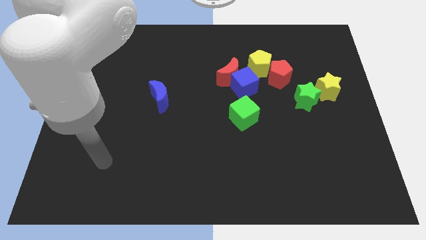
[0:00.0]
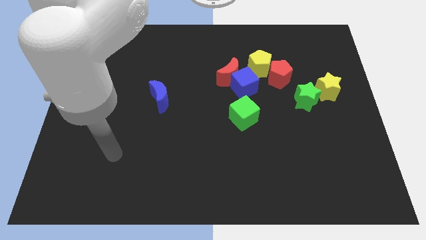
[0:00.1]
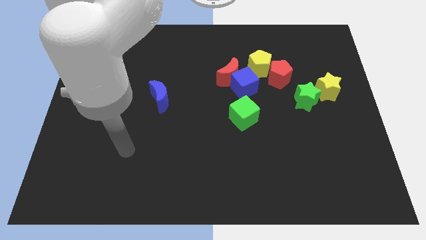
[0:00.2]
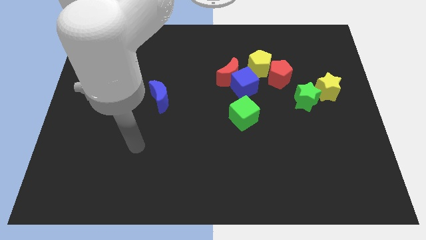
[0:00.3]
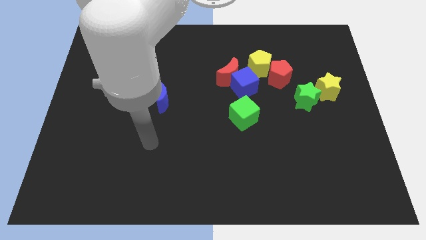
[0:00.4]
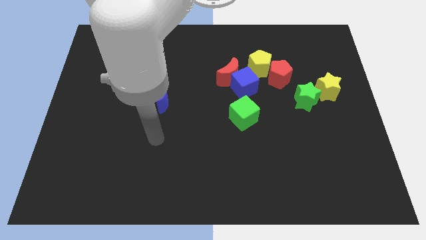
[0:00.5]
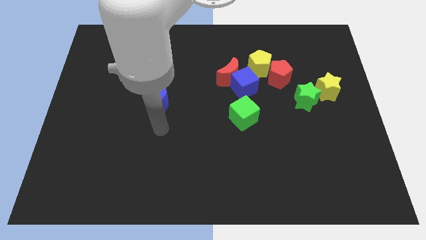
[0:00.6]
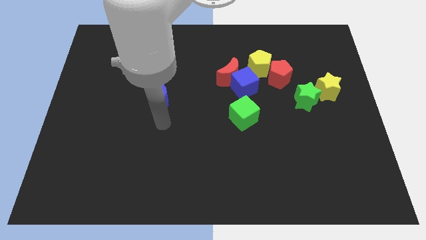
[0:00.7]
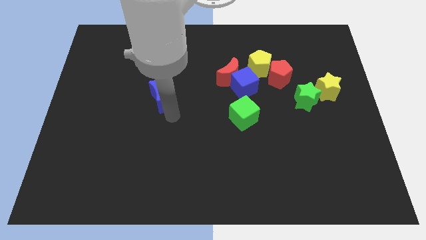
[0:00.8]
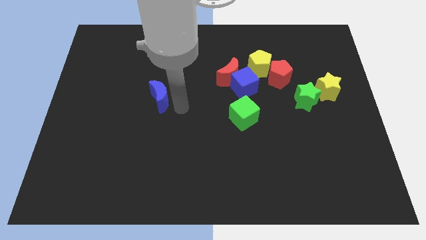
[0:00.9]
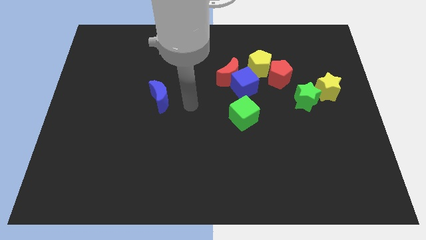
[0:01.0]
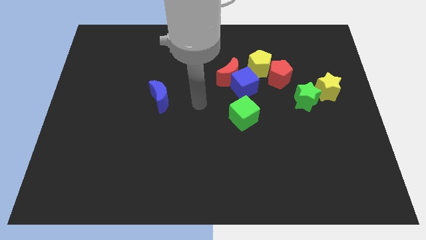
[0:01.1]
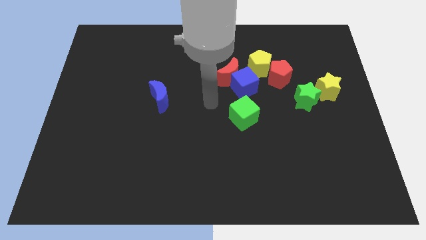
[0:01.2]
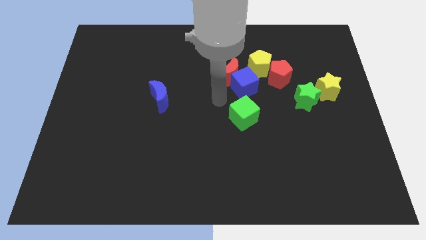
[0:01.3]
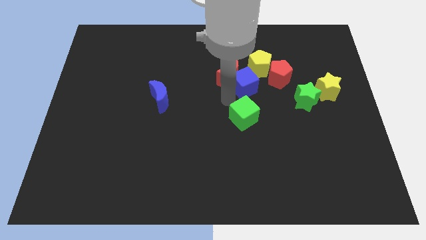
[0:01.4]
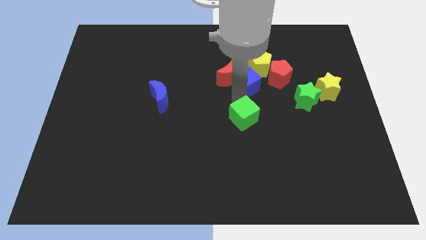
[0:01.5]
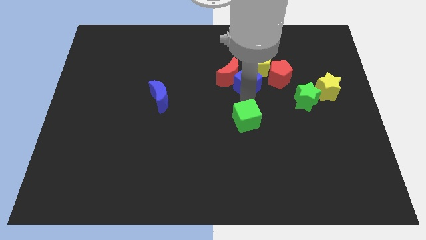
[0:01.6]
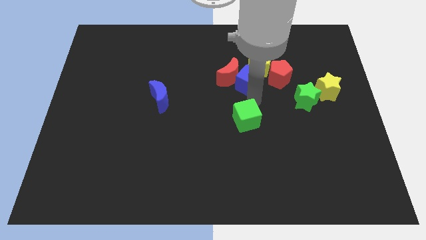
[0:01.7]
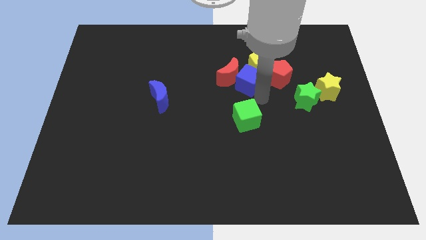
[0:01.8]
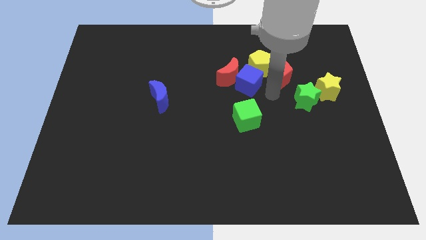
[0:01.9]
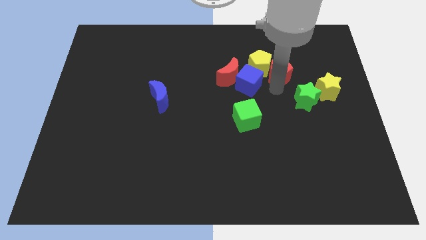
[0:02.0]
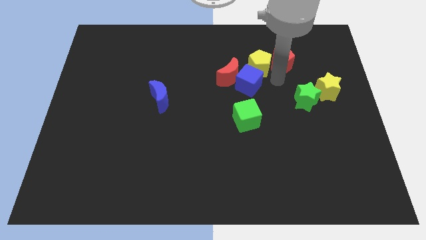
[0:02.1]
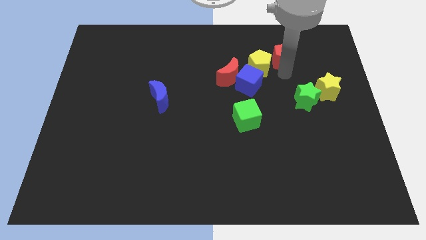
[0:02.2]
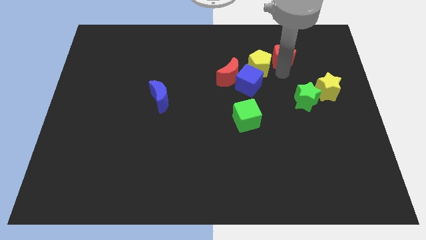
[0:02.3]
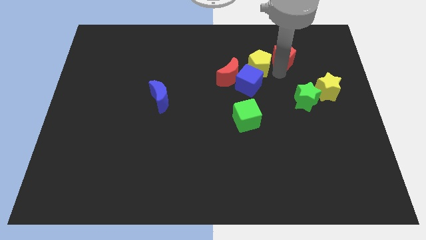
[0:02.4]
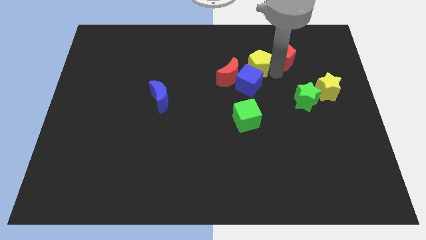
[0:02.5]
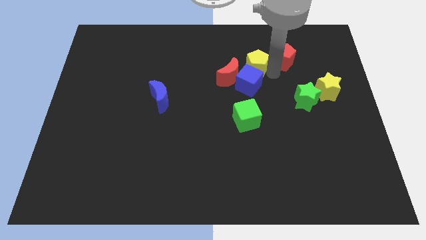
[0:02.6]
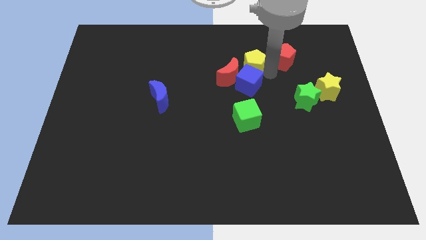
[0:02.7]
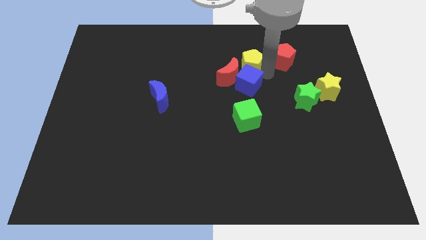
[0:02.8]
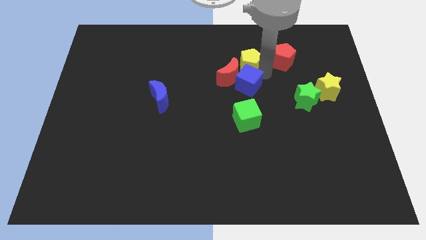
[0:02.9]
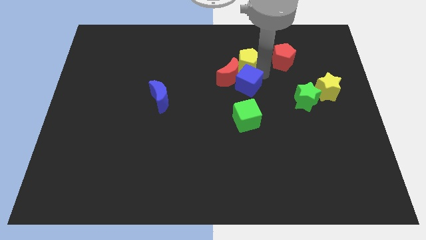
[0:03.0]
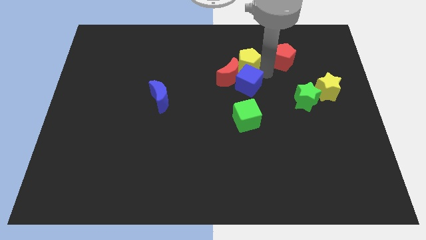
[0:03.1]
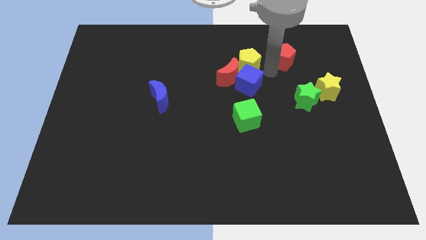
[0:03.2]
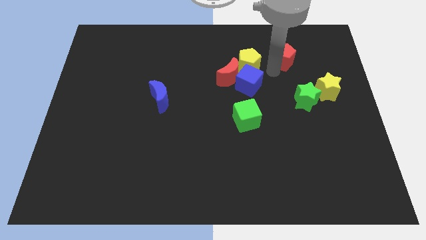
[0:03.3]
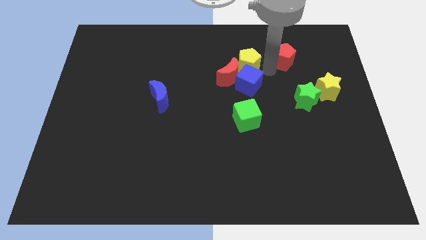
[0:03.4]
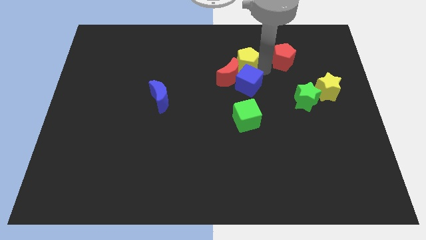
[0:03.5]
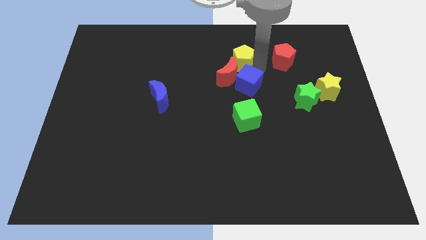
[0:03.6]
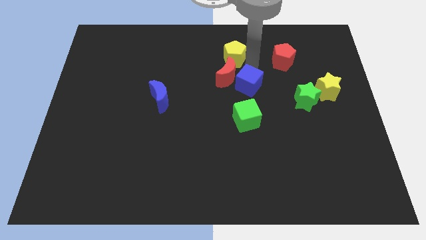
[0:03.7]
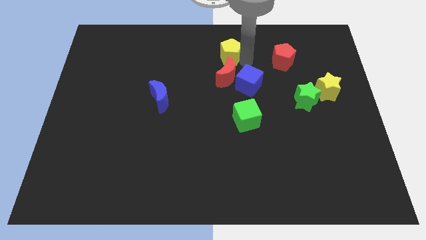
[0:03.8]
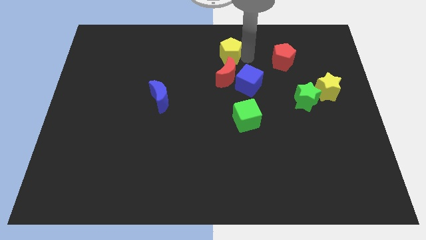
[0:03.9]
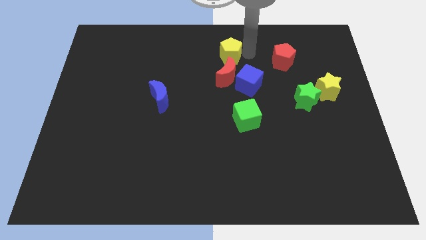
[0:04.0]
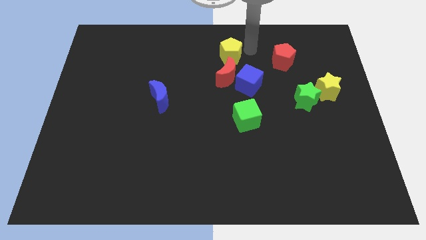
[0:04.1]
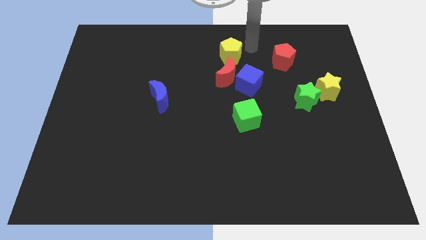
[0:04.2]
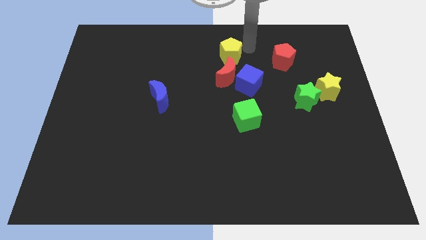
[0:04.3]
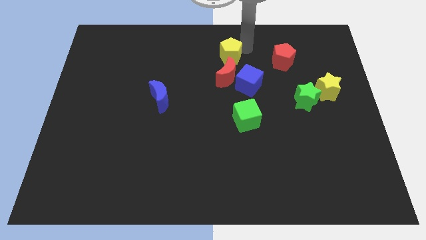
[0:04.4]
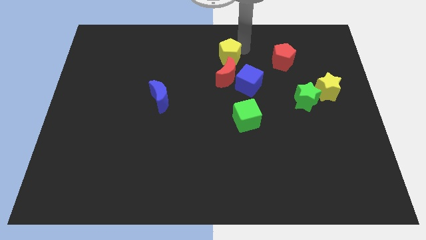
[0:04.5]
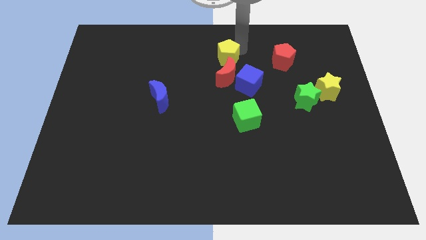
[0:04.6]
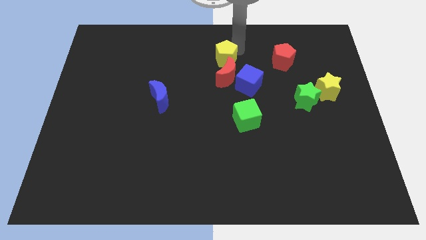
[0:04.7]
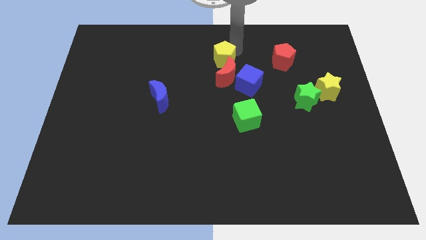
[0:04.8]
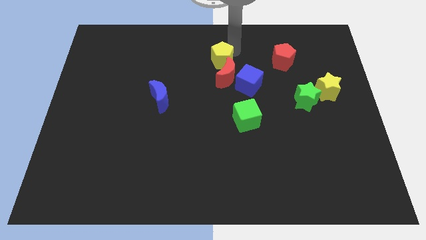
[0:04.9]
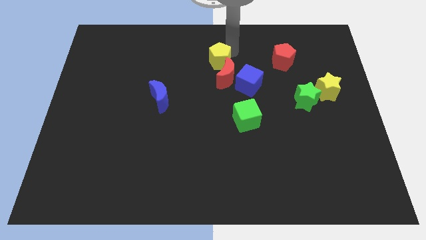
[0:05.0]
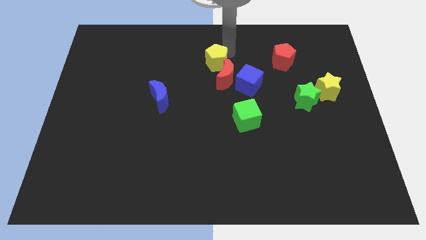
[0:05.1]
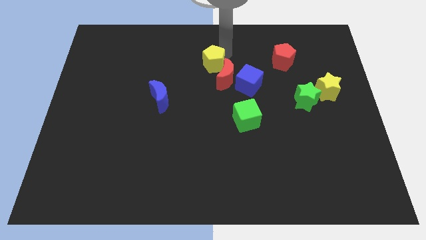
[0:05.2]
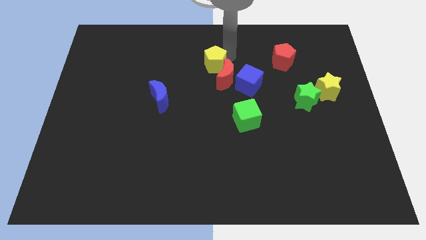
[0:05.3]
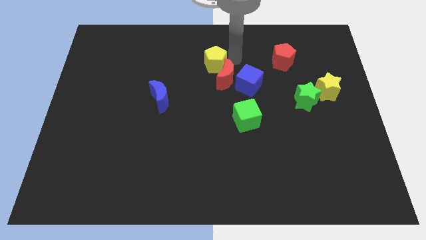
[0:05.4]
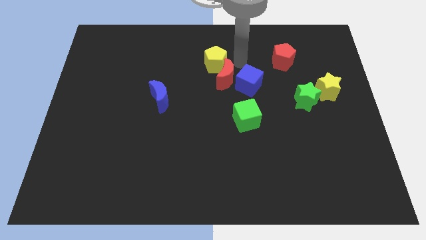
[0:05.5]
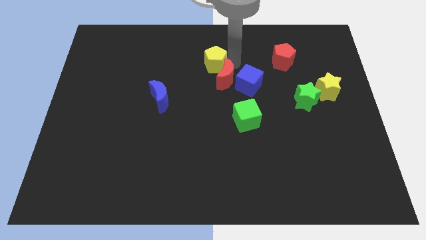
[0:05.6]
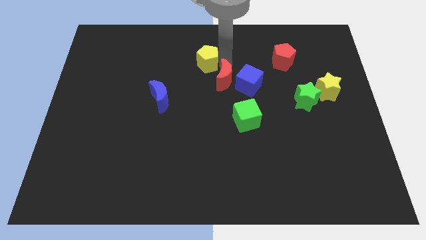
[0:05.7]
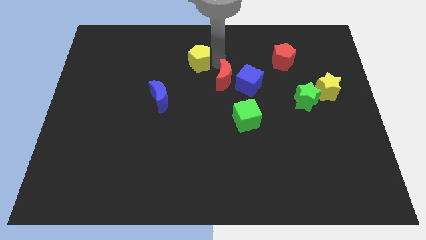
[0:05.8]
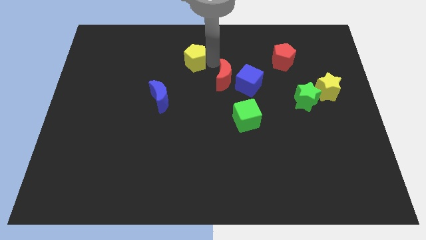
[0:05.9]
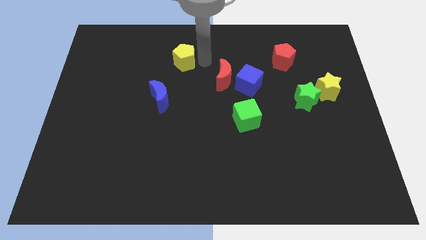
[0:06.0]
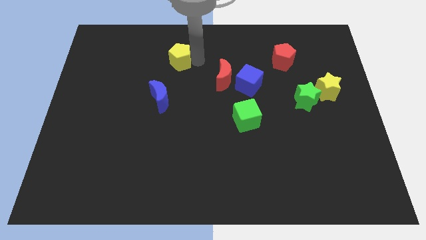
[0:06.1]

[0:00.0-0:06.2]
move the yellow pentagon left

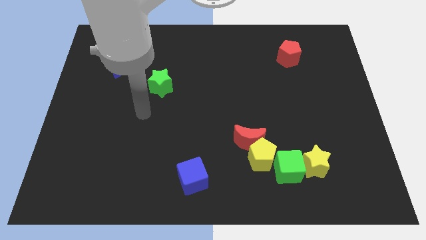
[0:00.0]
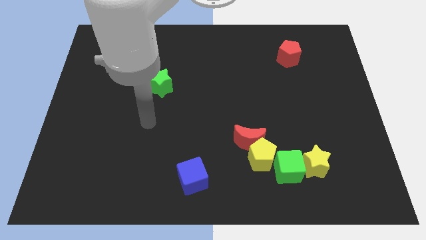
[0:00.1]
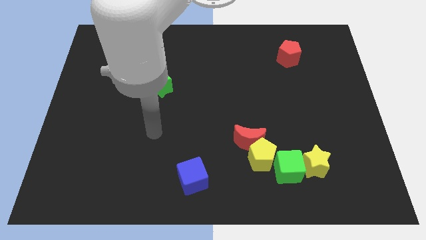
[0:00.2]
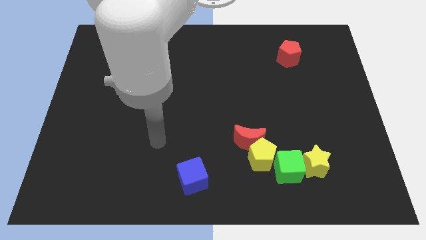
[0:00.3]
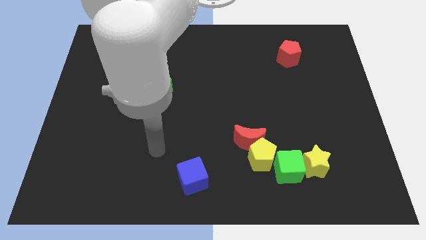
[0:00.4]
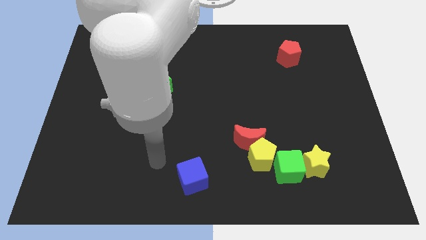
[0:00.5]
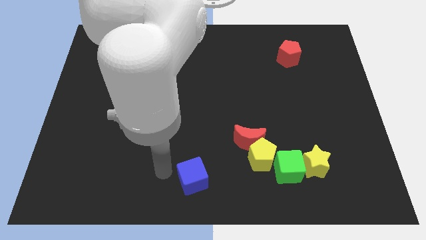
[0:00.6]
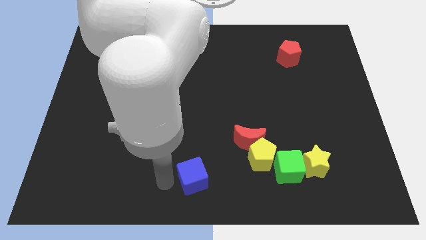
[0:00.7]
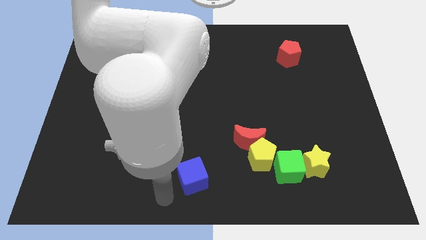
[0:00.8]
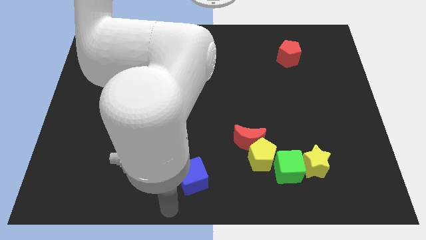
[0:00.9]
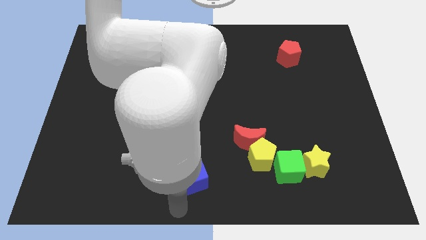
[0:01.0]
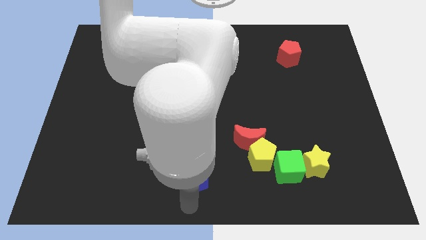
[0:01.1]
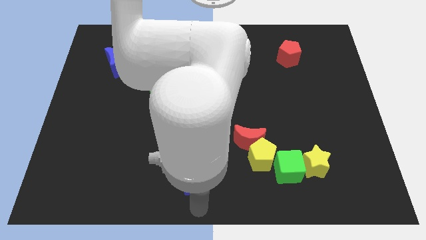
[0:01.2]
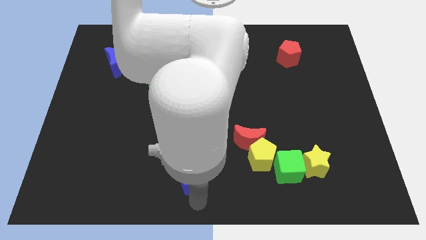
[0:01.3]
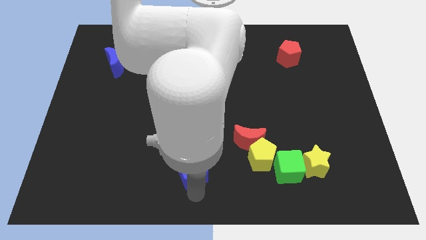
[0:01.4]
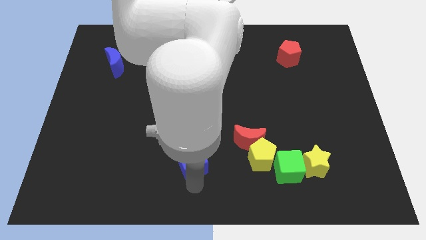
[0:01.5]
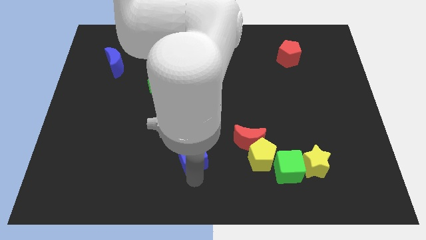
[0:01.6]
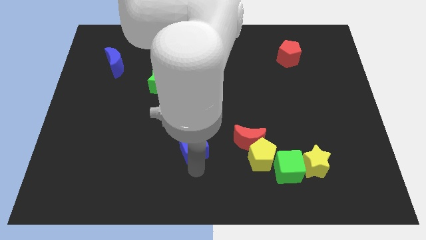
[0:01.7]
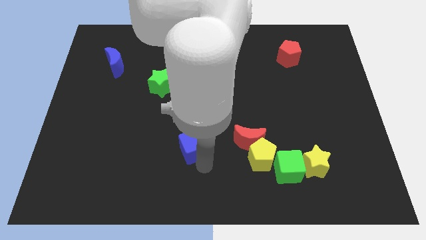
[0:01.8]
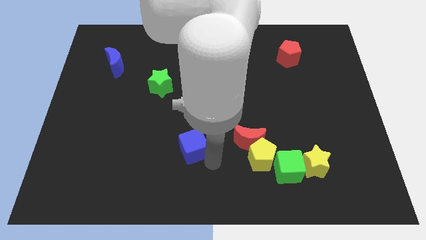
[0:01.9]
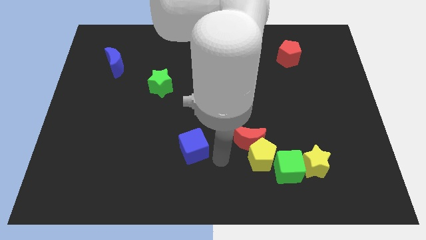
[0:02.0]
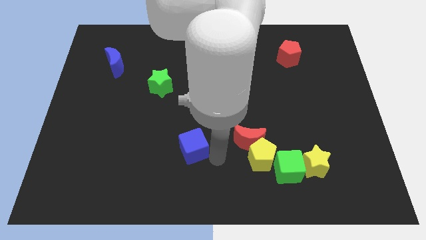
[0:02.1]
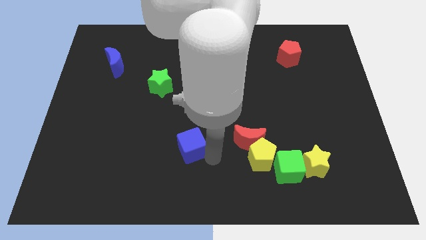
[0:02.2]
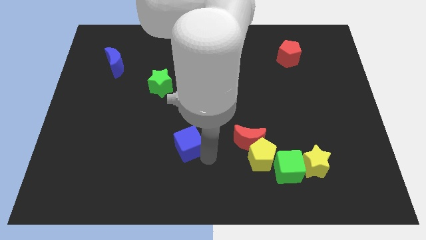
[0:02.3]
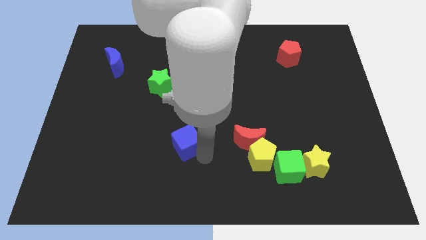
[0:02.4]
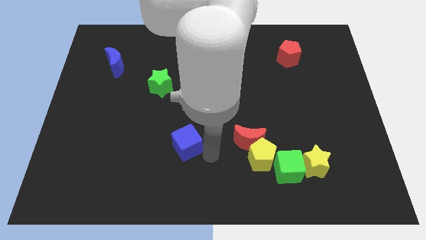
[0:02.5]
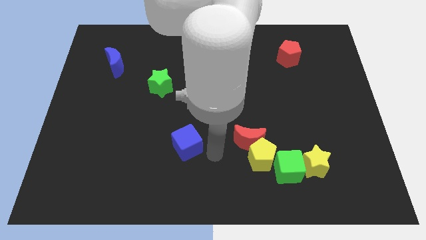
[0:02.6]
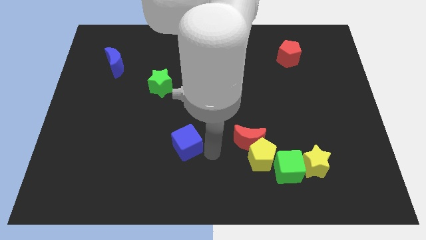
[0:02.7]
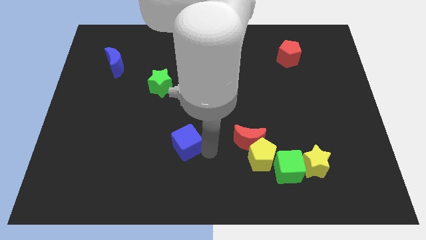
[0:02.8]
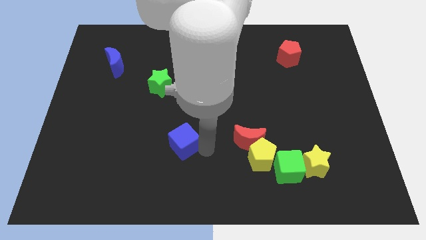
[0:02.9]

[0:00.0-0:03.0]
slide the blue cube up and then to the left somewhat
